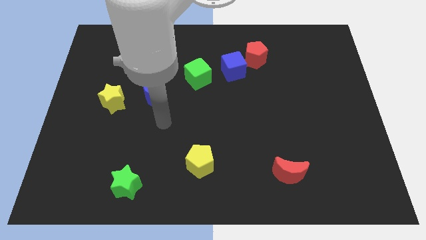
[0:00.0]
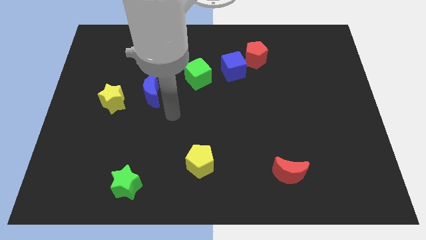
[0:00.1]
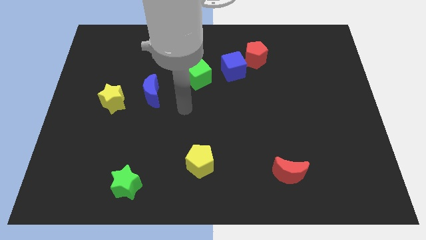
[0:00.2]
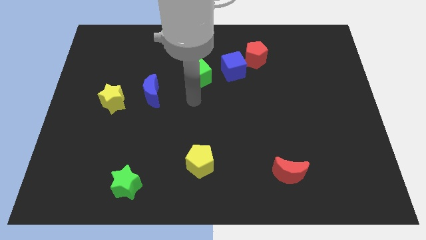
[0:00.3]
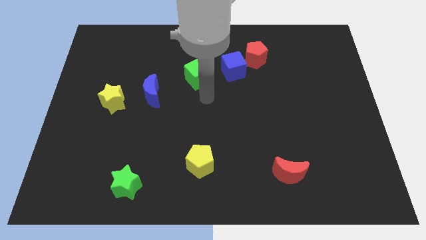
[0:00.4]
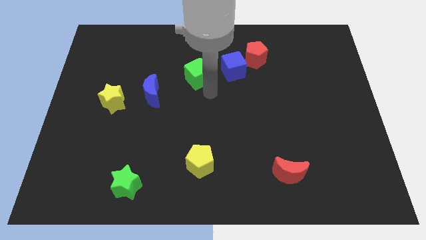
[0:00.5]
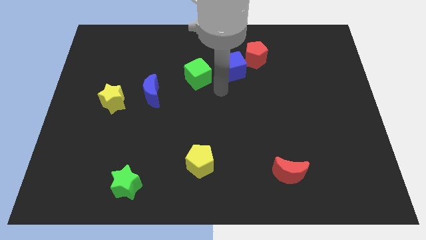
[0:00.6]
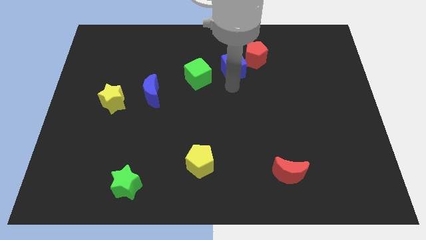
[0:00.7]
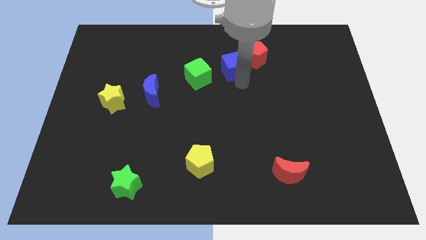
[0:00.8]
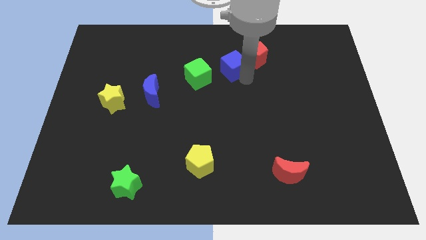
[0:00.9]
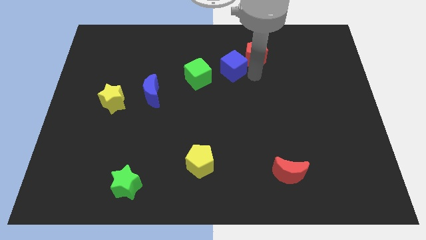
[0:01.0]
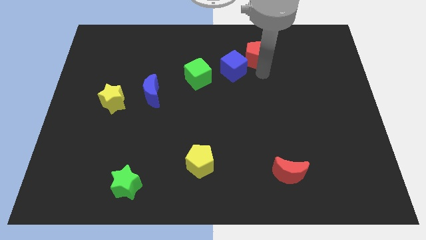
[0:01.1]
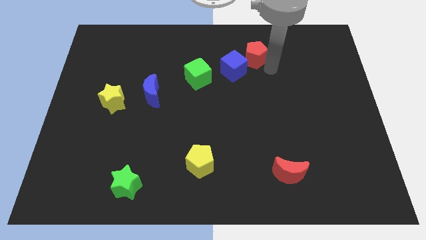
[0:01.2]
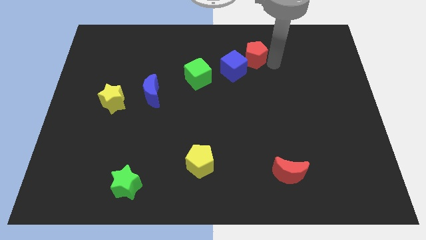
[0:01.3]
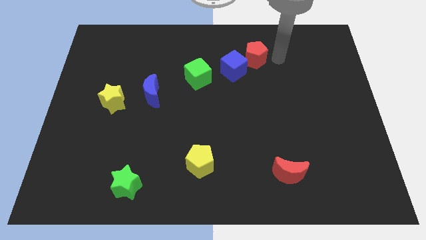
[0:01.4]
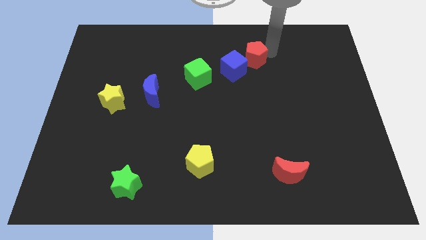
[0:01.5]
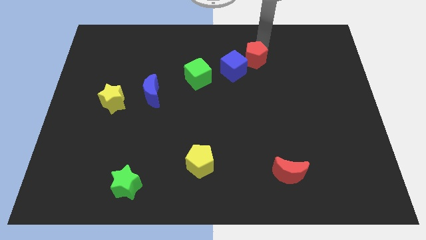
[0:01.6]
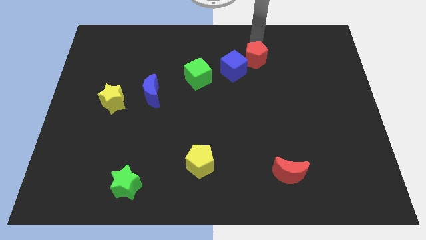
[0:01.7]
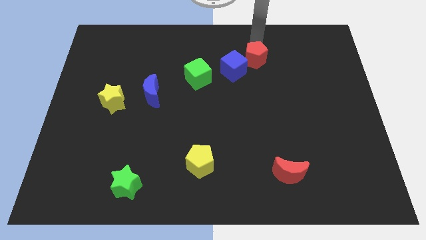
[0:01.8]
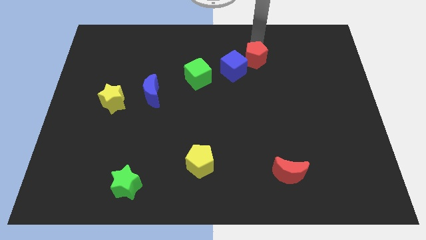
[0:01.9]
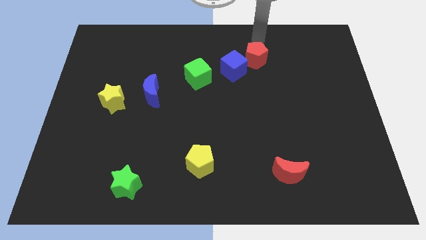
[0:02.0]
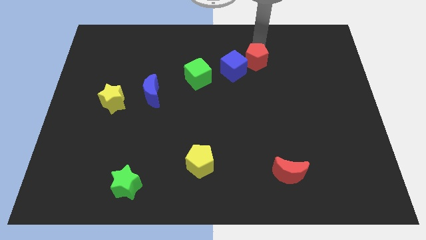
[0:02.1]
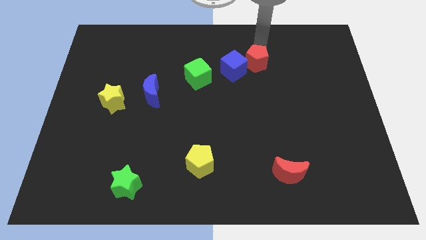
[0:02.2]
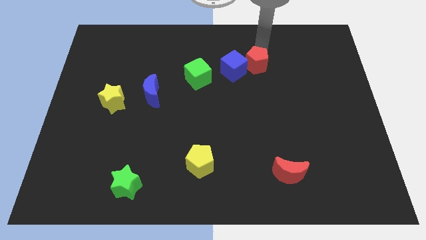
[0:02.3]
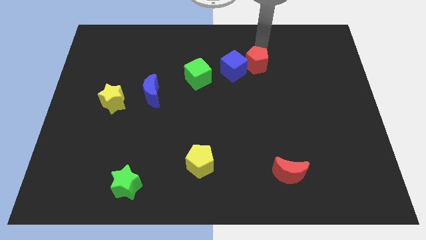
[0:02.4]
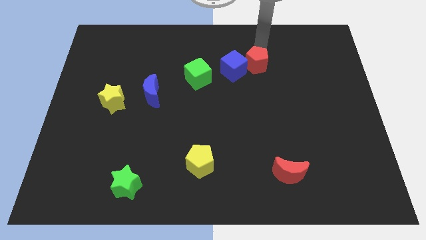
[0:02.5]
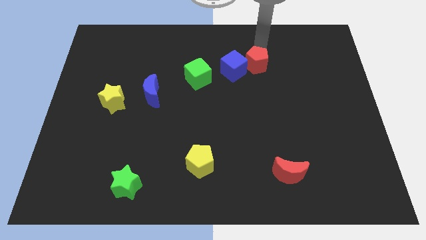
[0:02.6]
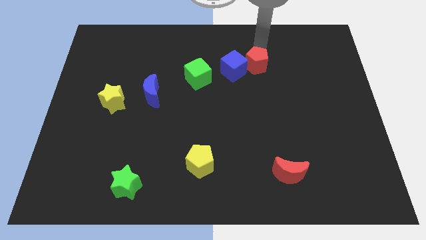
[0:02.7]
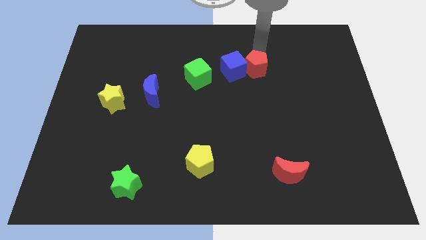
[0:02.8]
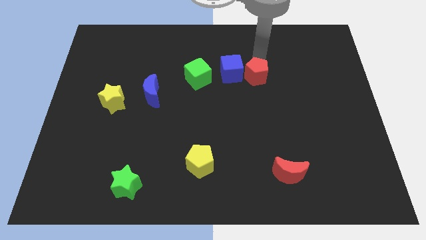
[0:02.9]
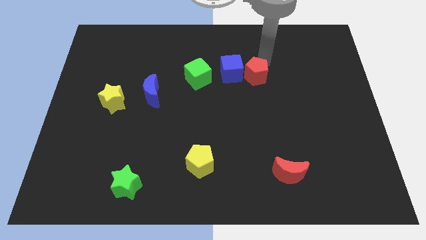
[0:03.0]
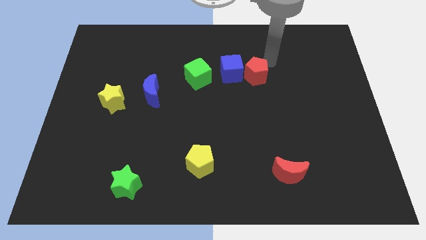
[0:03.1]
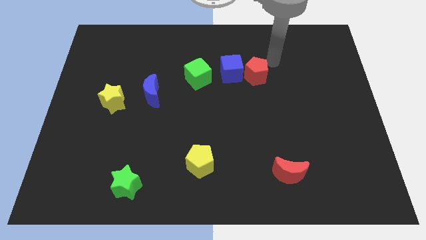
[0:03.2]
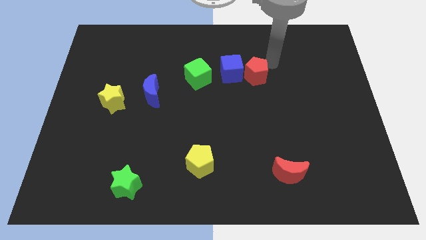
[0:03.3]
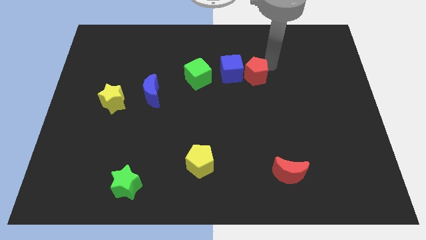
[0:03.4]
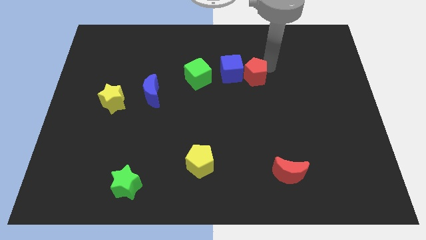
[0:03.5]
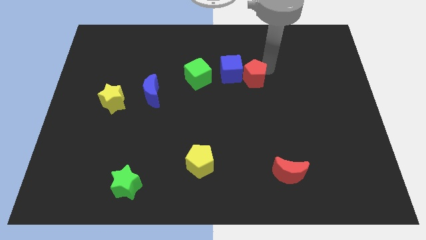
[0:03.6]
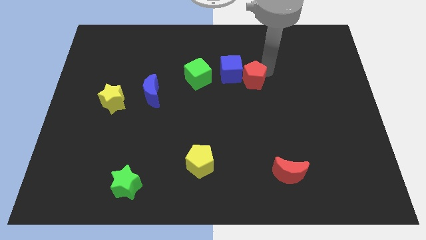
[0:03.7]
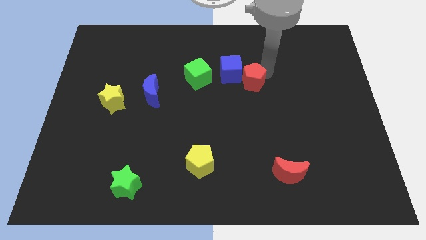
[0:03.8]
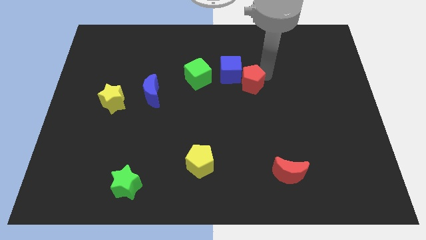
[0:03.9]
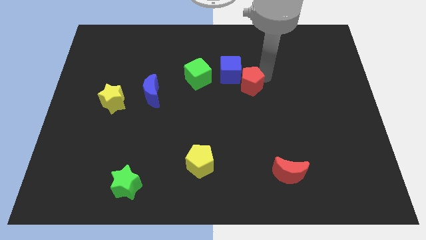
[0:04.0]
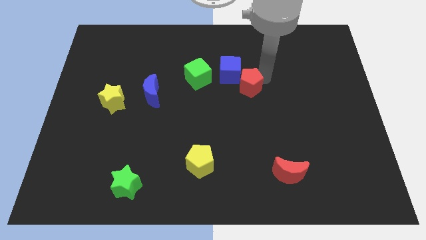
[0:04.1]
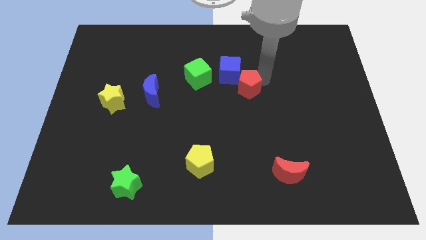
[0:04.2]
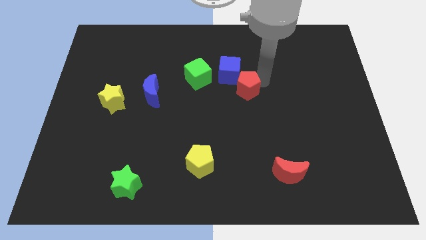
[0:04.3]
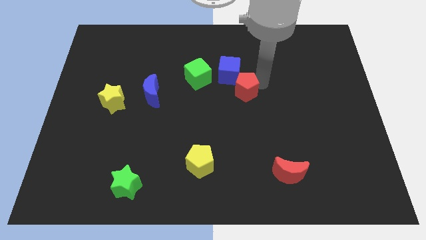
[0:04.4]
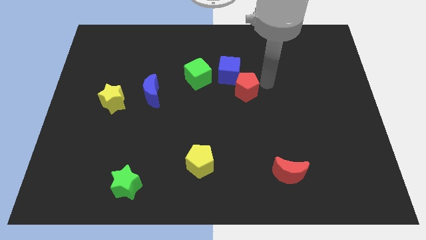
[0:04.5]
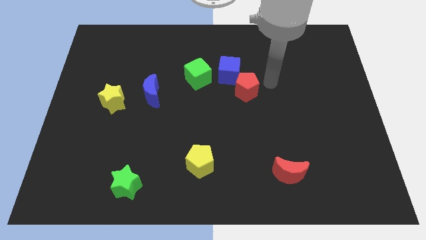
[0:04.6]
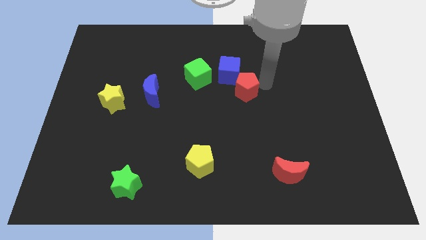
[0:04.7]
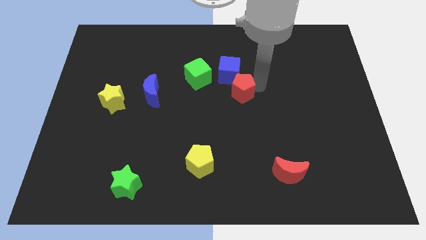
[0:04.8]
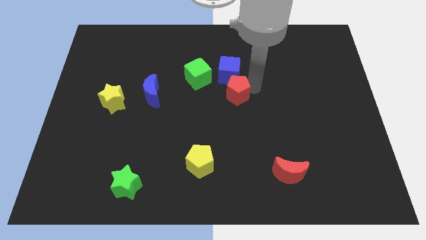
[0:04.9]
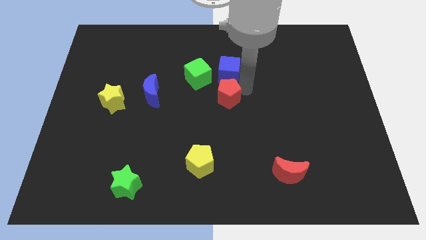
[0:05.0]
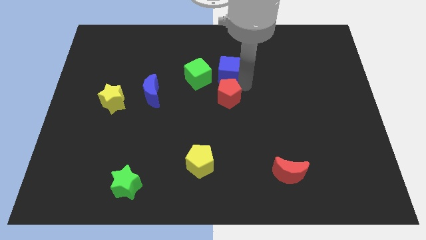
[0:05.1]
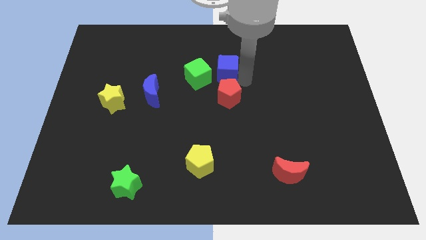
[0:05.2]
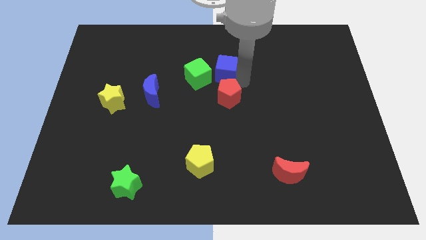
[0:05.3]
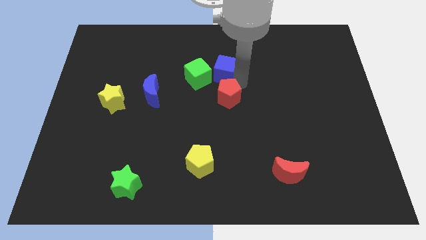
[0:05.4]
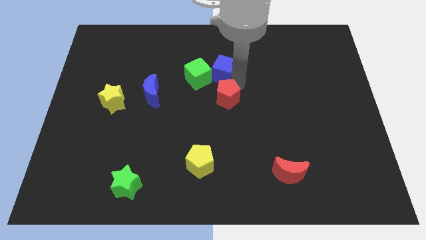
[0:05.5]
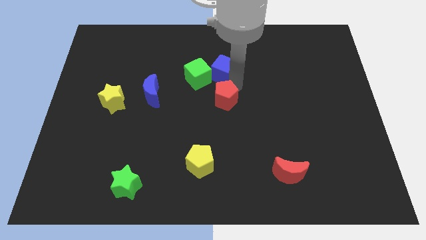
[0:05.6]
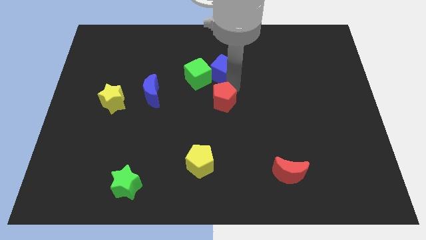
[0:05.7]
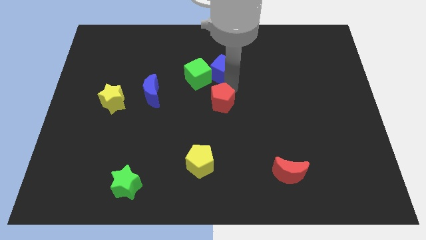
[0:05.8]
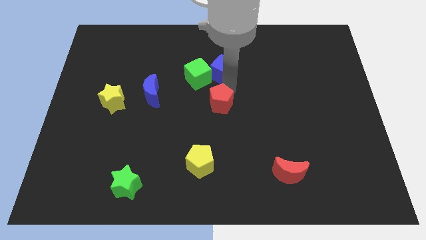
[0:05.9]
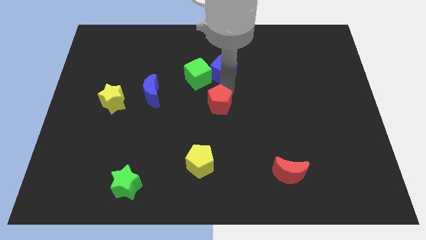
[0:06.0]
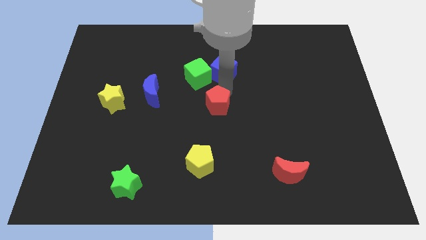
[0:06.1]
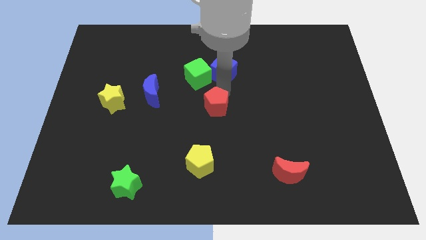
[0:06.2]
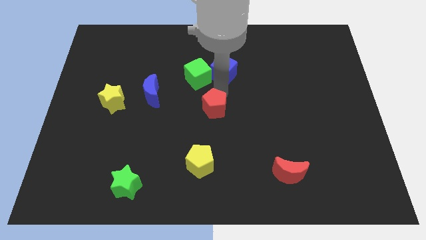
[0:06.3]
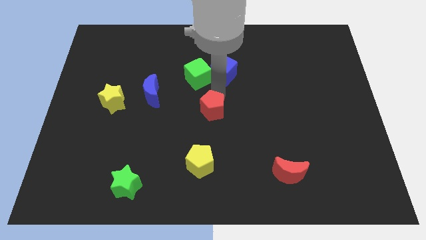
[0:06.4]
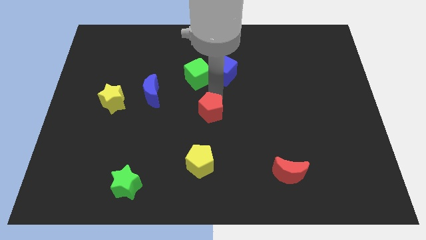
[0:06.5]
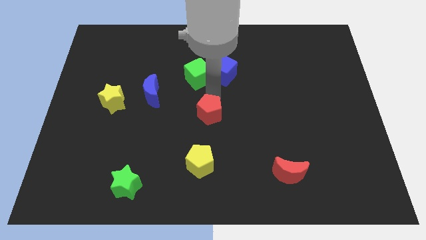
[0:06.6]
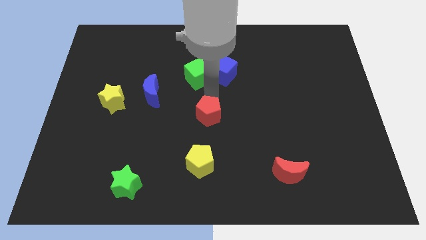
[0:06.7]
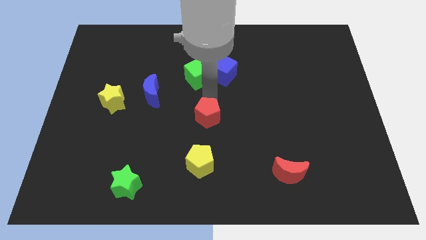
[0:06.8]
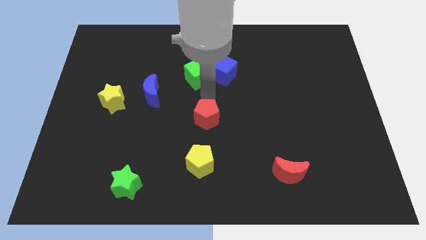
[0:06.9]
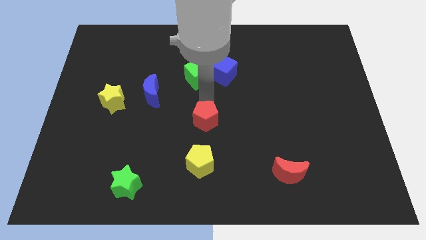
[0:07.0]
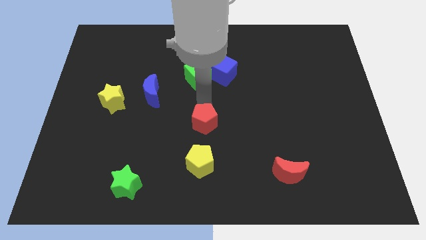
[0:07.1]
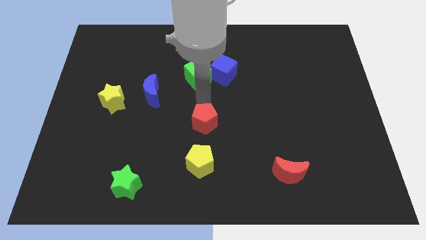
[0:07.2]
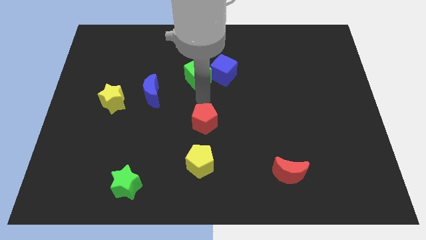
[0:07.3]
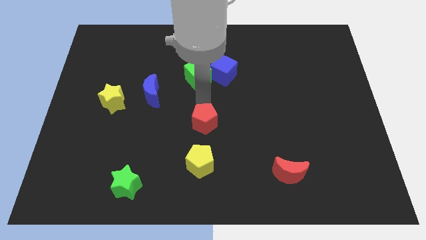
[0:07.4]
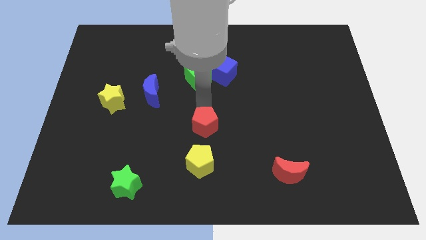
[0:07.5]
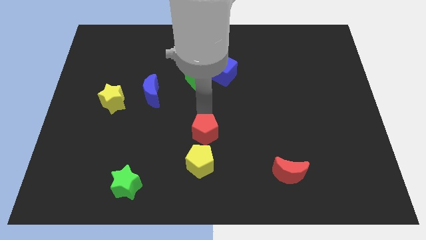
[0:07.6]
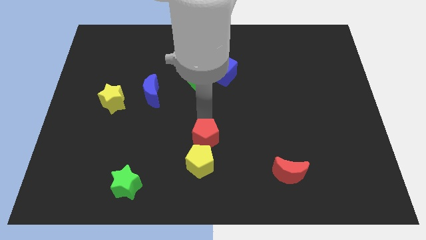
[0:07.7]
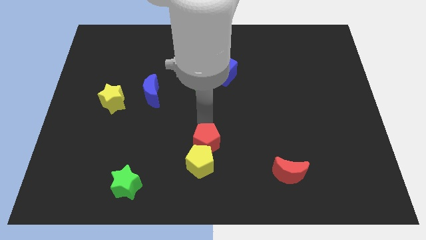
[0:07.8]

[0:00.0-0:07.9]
slide the red pentagon to the yellow pentagon
